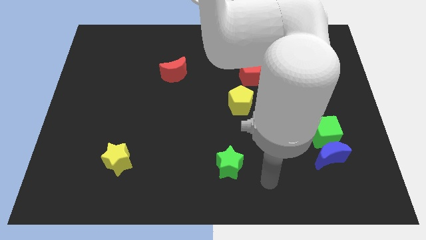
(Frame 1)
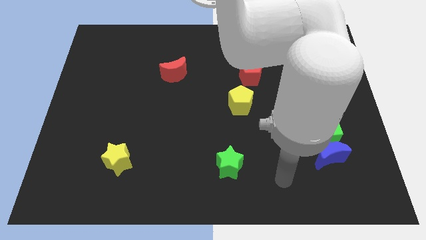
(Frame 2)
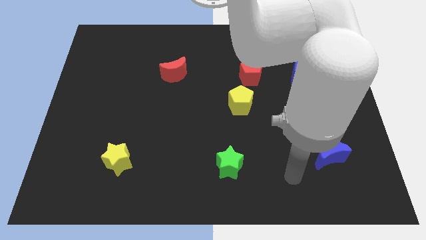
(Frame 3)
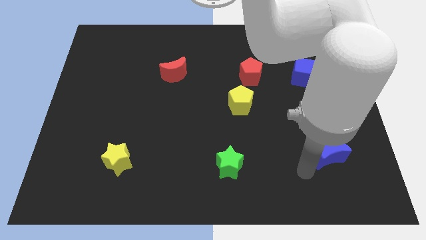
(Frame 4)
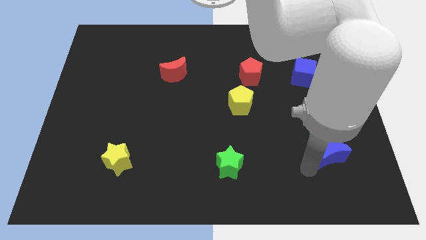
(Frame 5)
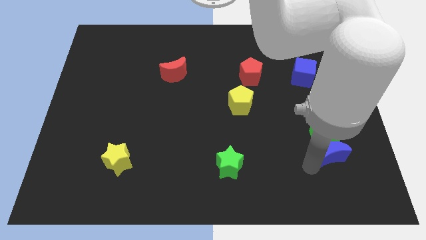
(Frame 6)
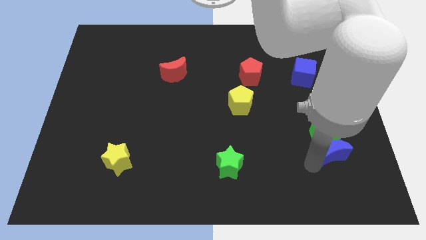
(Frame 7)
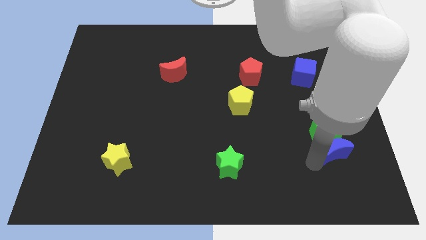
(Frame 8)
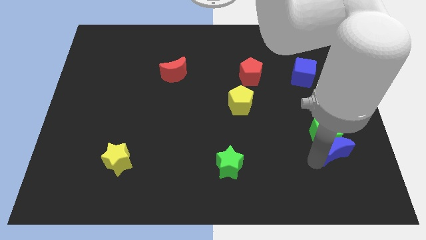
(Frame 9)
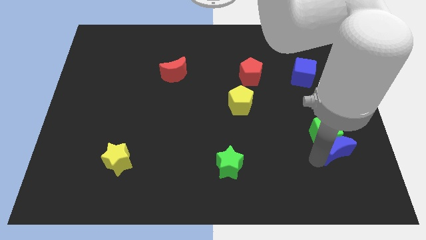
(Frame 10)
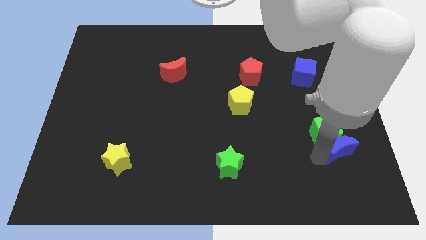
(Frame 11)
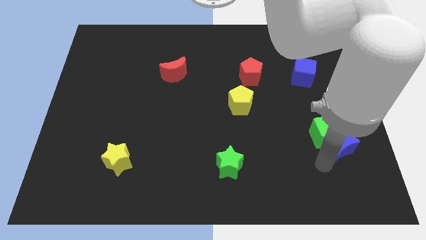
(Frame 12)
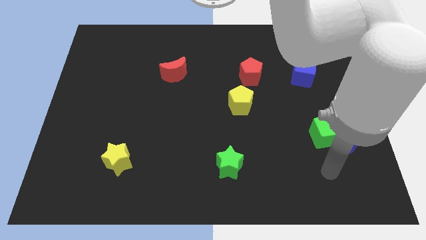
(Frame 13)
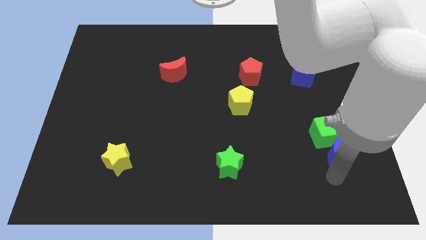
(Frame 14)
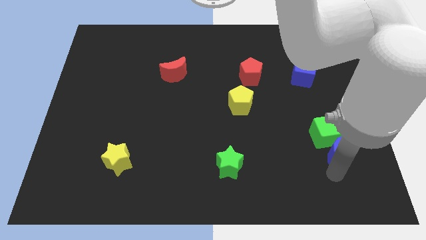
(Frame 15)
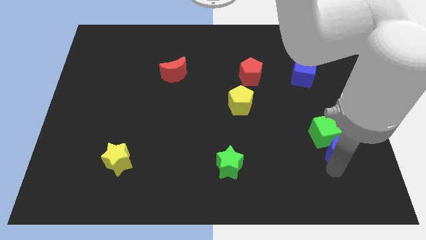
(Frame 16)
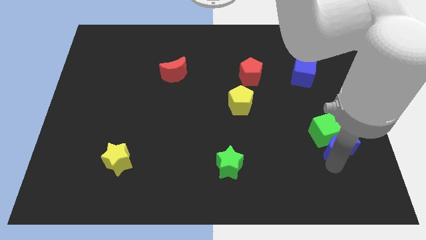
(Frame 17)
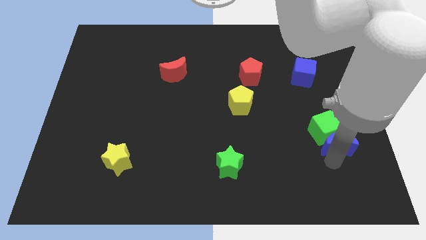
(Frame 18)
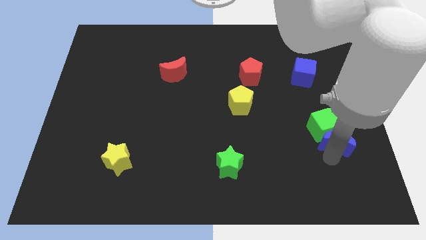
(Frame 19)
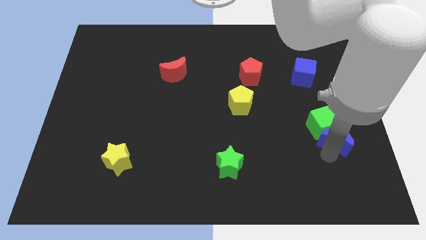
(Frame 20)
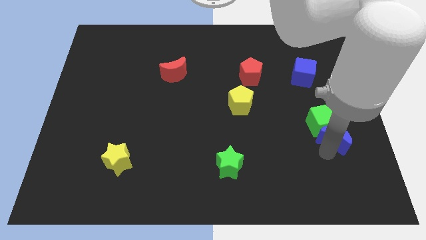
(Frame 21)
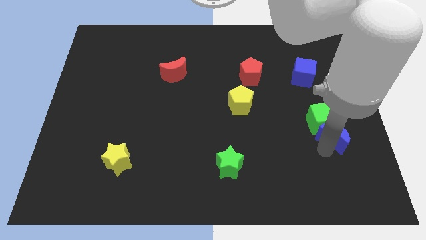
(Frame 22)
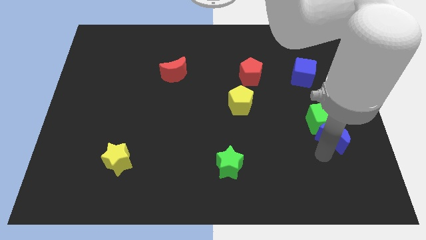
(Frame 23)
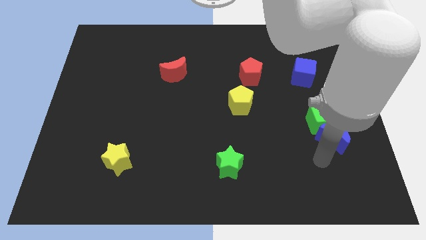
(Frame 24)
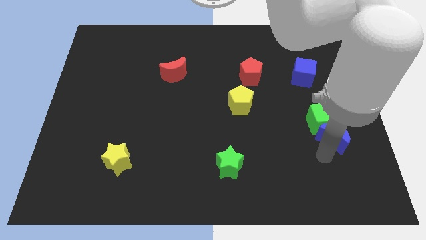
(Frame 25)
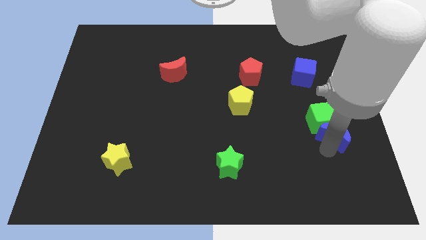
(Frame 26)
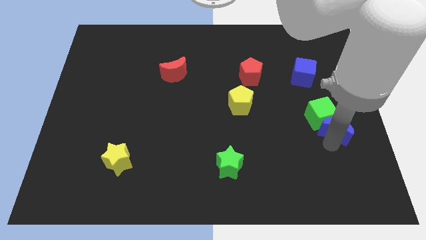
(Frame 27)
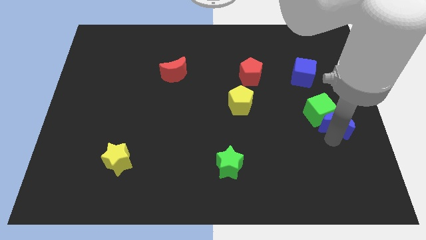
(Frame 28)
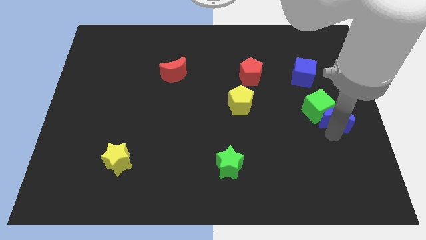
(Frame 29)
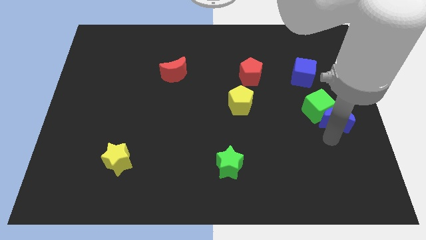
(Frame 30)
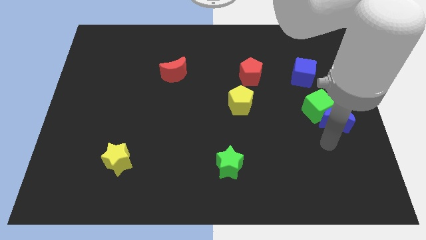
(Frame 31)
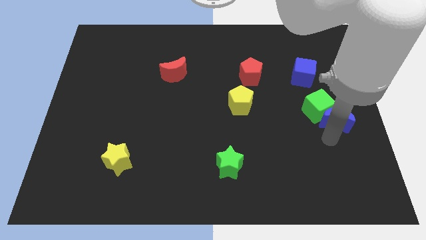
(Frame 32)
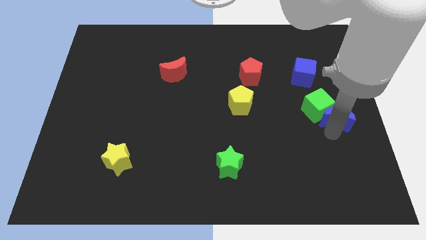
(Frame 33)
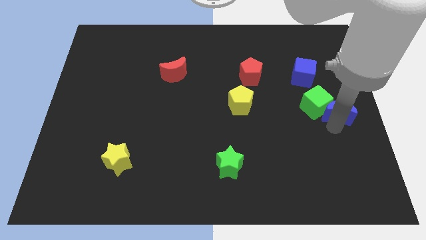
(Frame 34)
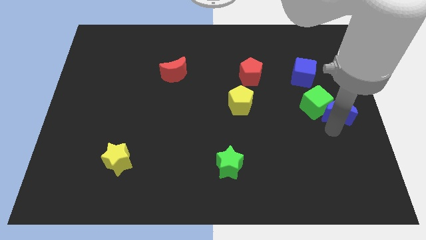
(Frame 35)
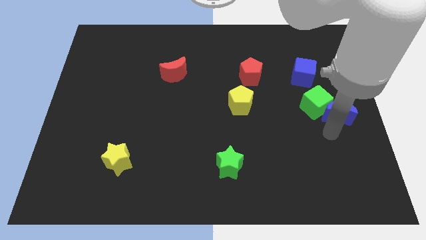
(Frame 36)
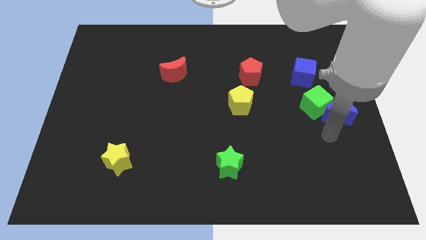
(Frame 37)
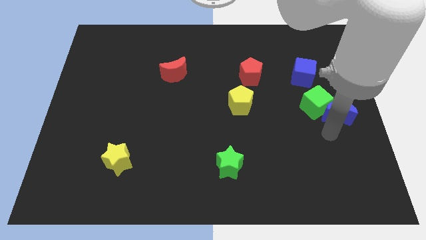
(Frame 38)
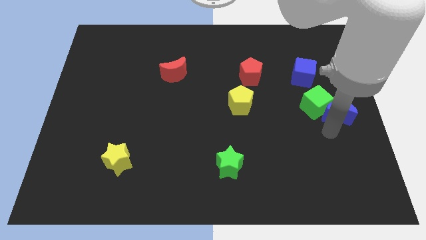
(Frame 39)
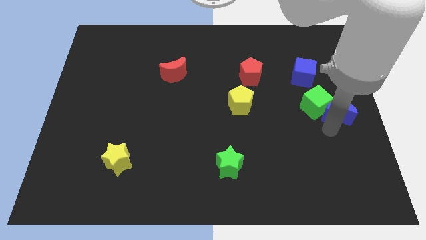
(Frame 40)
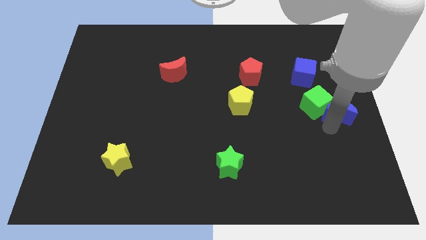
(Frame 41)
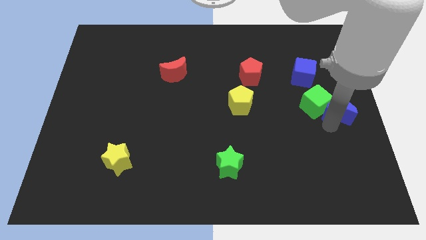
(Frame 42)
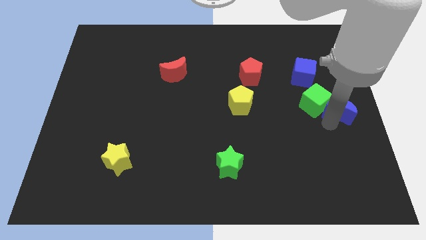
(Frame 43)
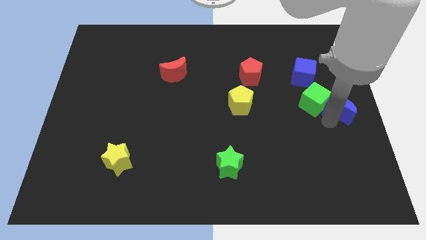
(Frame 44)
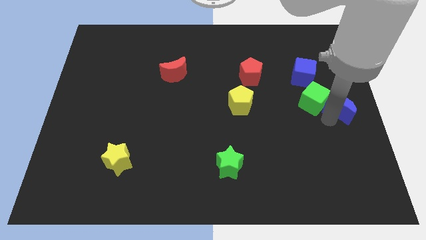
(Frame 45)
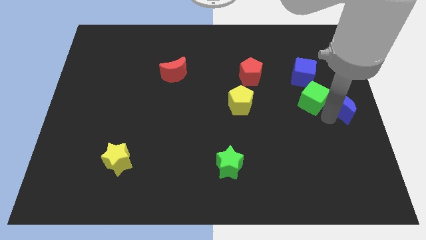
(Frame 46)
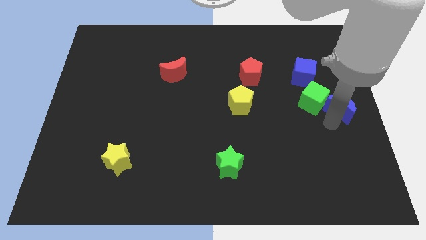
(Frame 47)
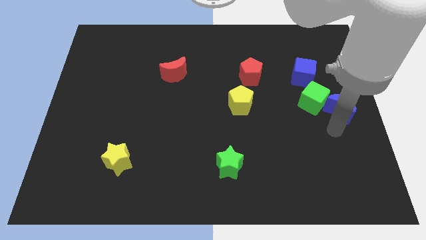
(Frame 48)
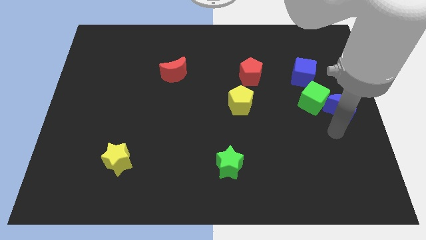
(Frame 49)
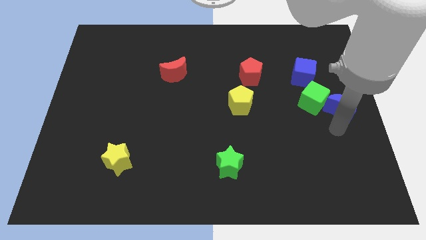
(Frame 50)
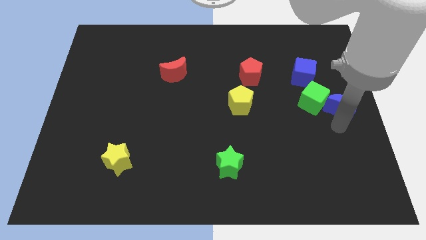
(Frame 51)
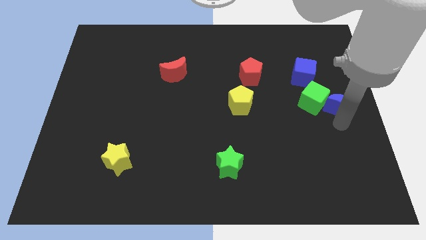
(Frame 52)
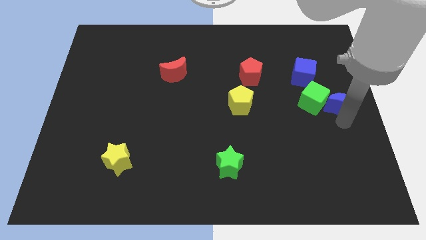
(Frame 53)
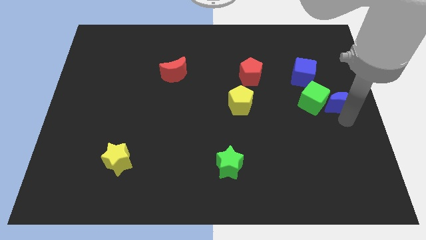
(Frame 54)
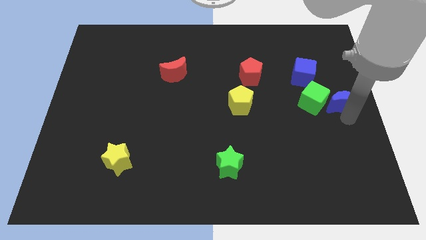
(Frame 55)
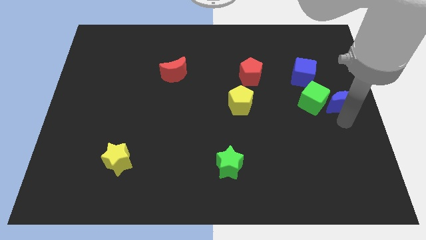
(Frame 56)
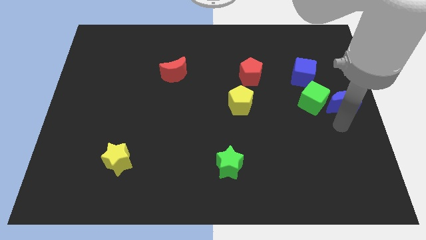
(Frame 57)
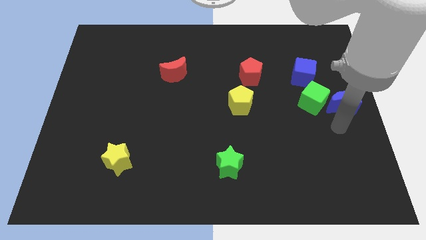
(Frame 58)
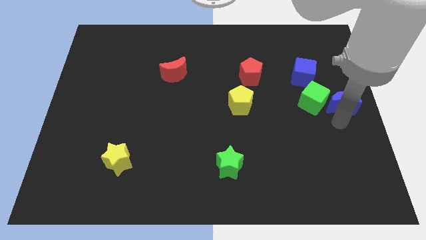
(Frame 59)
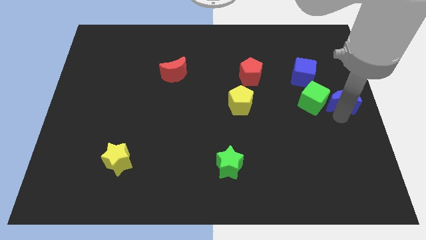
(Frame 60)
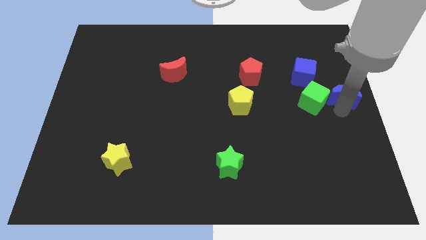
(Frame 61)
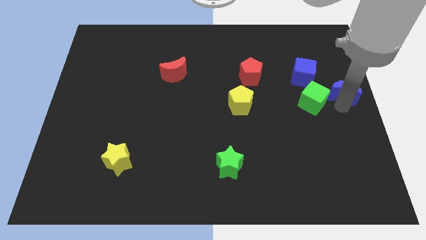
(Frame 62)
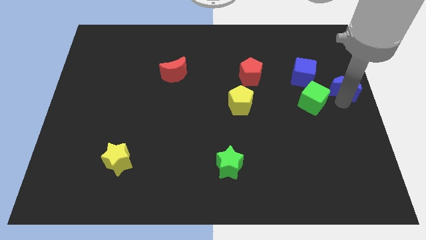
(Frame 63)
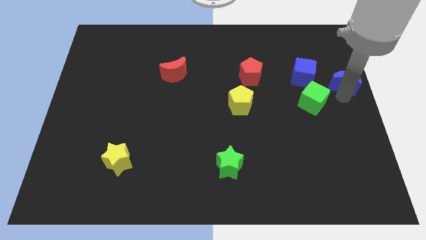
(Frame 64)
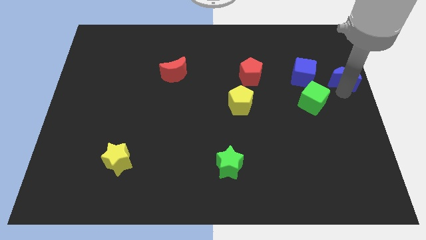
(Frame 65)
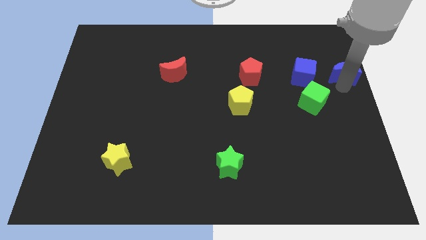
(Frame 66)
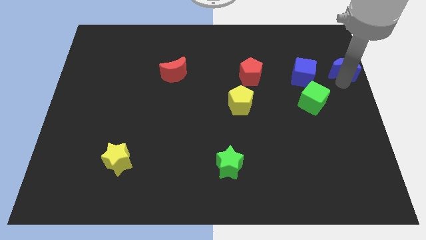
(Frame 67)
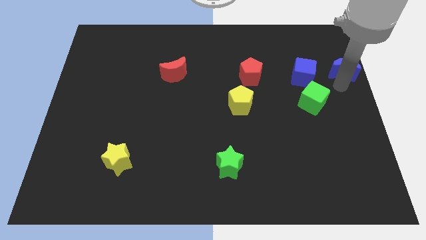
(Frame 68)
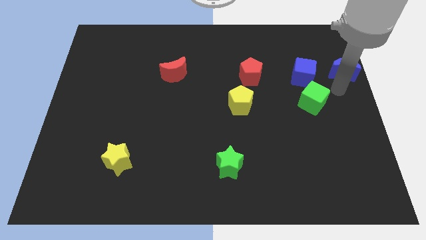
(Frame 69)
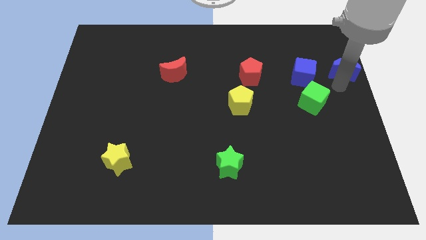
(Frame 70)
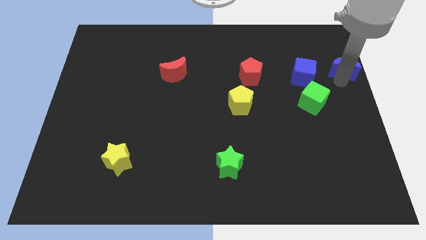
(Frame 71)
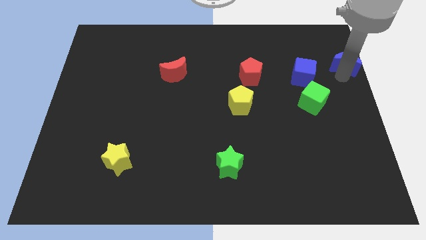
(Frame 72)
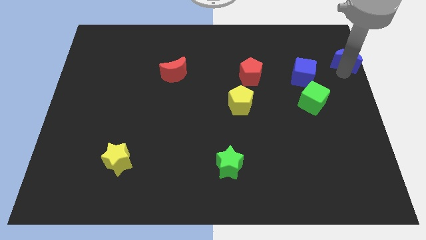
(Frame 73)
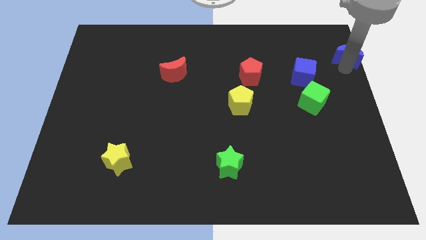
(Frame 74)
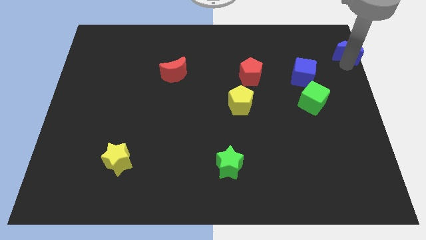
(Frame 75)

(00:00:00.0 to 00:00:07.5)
move the blue moon to the top right corner
